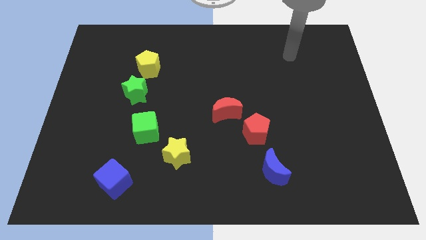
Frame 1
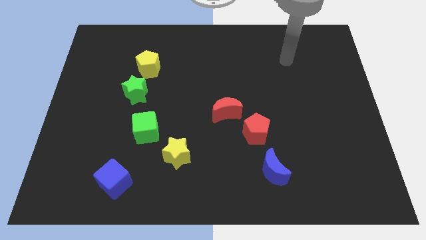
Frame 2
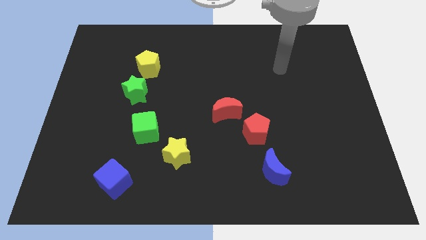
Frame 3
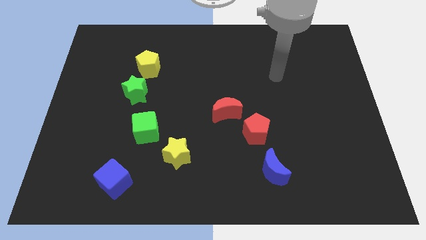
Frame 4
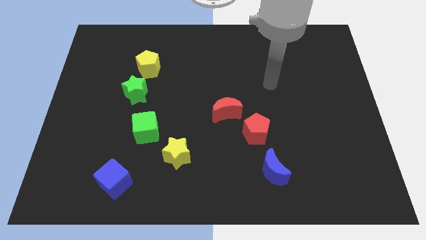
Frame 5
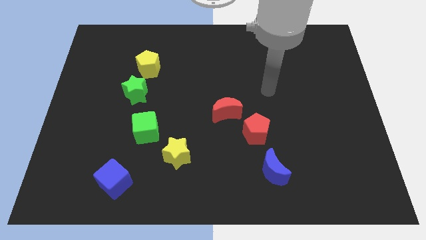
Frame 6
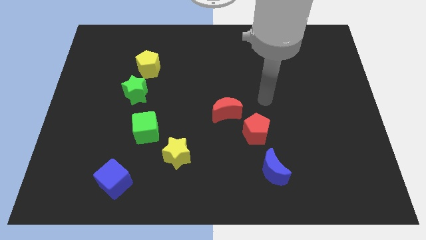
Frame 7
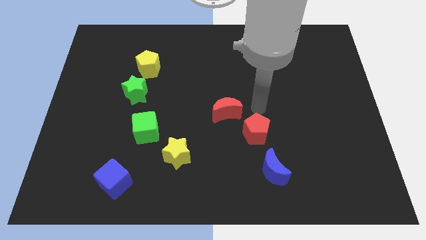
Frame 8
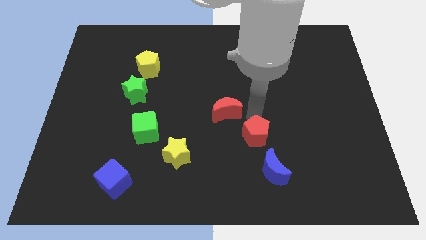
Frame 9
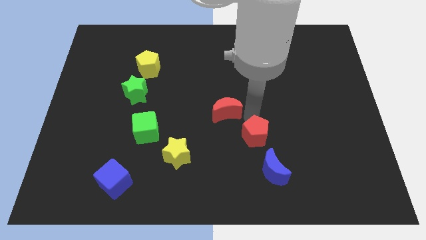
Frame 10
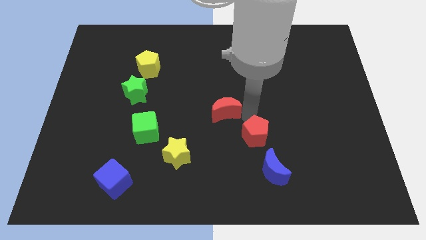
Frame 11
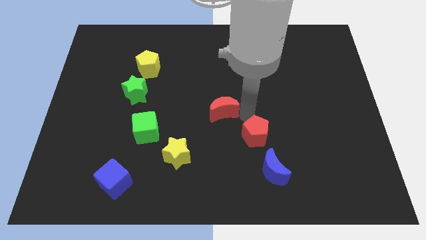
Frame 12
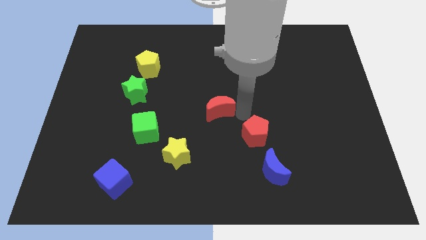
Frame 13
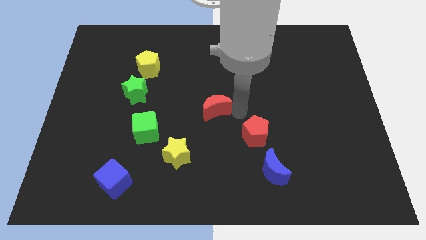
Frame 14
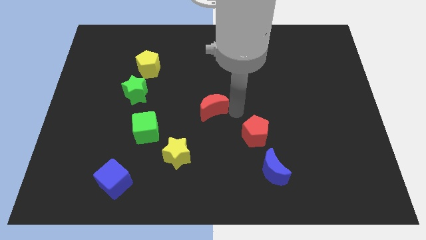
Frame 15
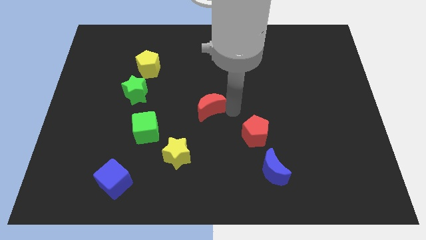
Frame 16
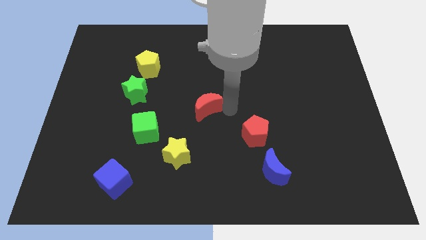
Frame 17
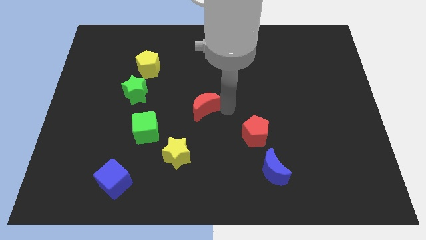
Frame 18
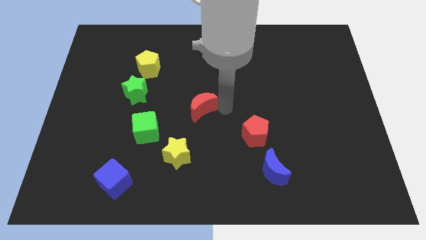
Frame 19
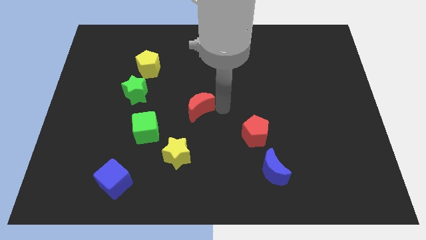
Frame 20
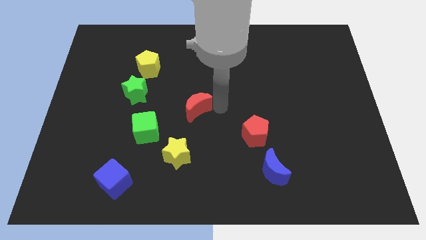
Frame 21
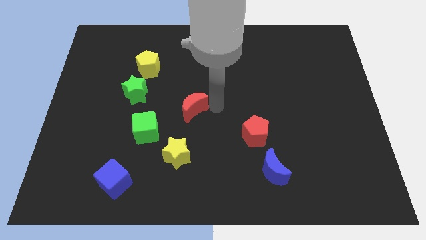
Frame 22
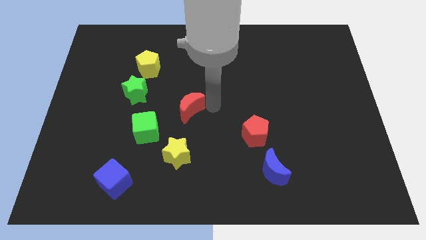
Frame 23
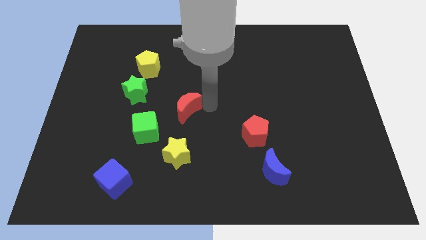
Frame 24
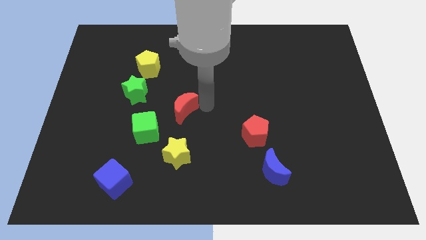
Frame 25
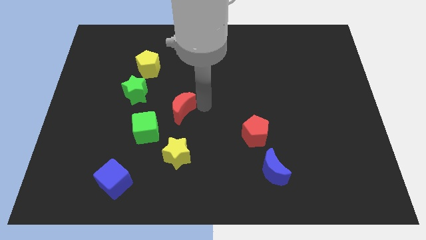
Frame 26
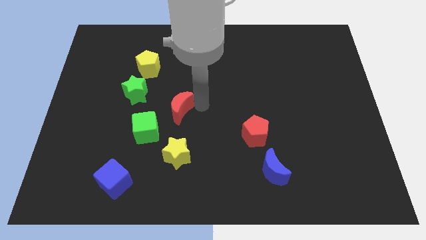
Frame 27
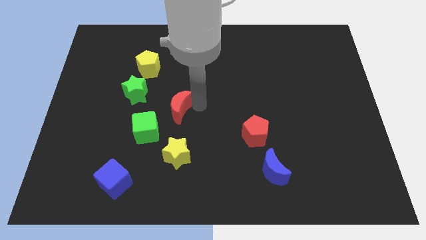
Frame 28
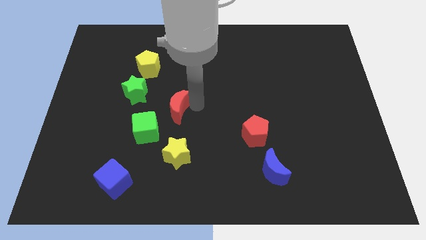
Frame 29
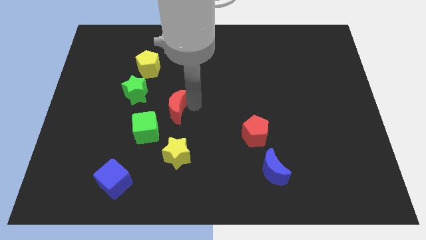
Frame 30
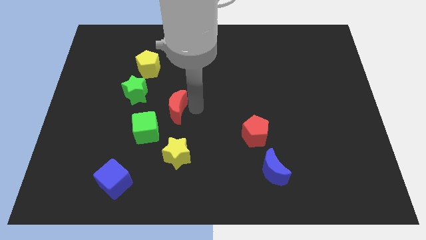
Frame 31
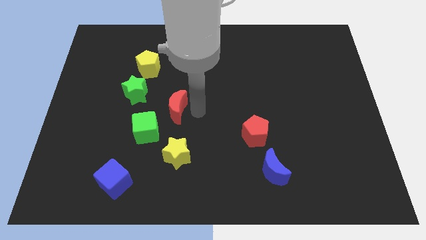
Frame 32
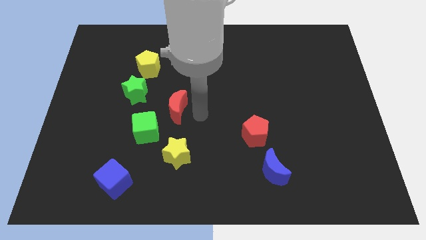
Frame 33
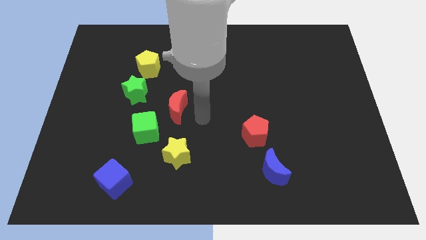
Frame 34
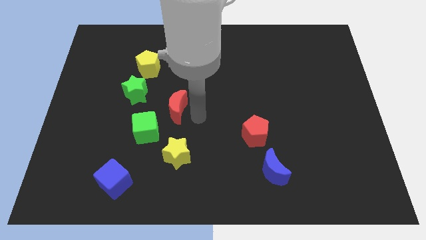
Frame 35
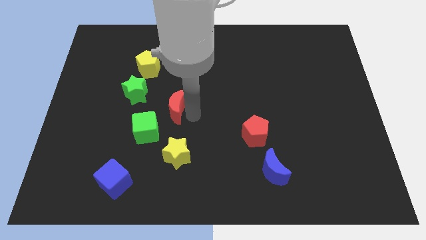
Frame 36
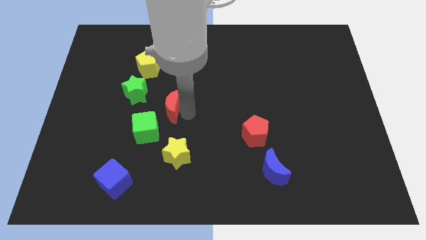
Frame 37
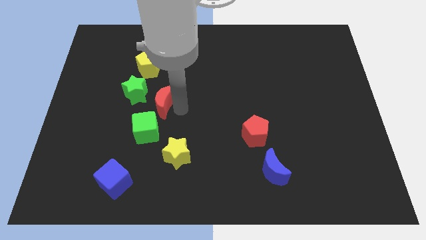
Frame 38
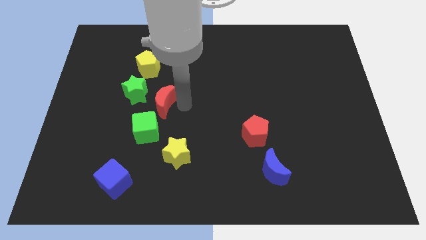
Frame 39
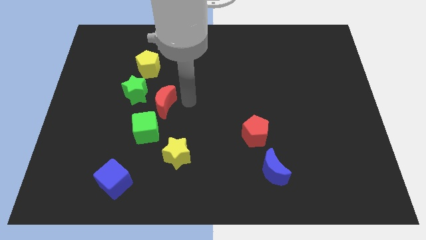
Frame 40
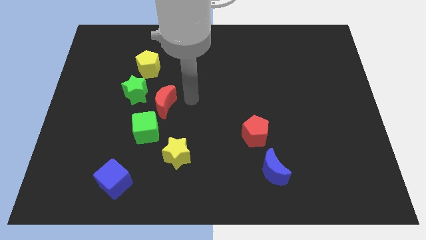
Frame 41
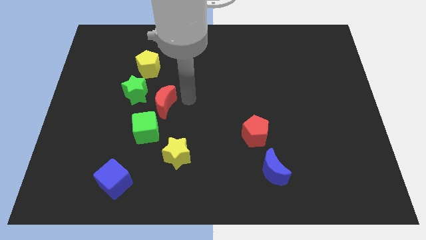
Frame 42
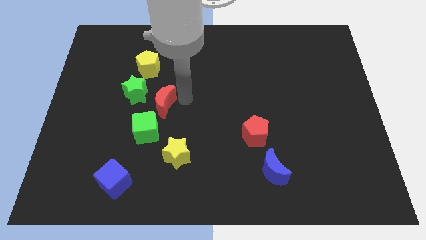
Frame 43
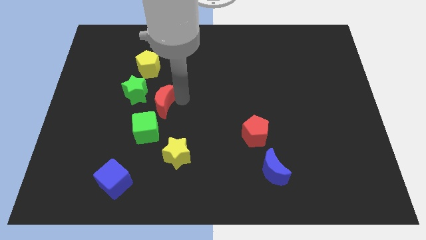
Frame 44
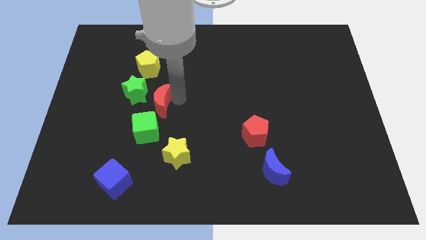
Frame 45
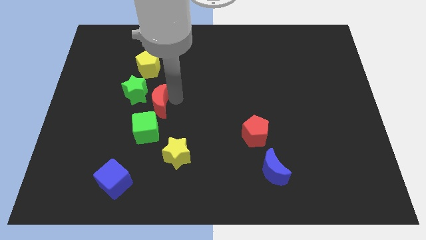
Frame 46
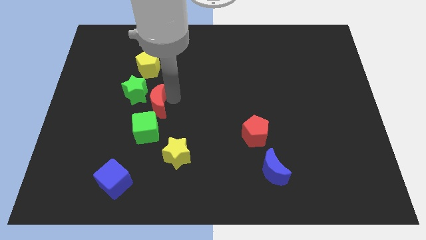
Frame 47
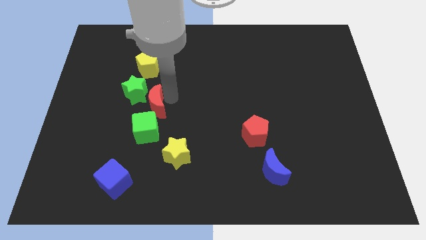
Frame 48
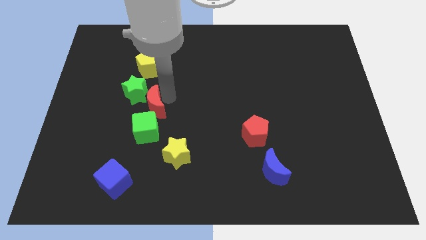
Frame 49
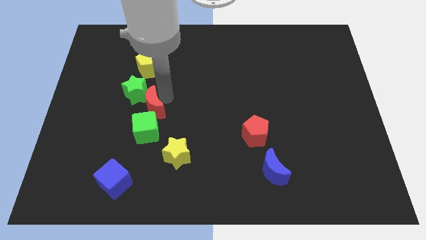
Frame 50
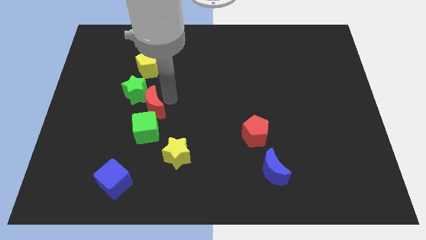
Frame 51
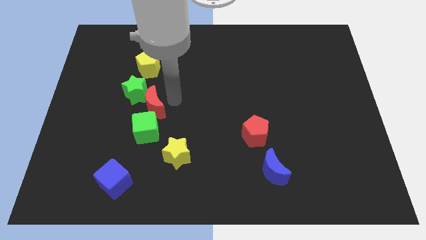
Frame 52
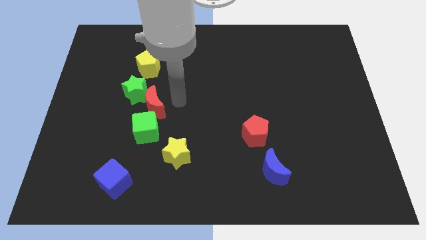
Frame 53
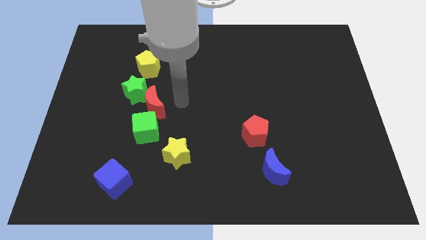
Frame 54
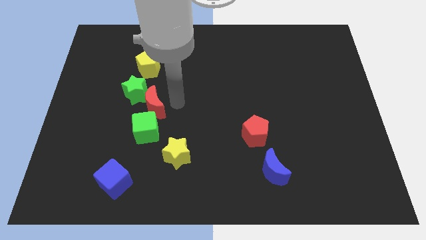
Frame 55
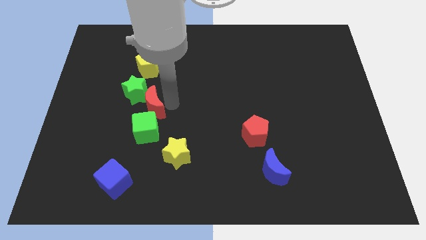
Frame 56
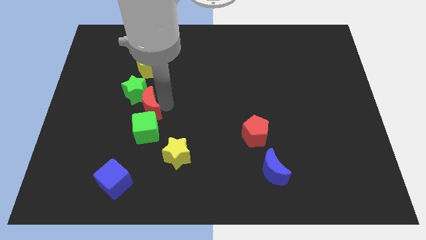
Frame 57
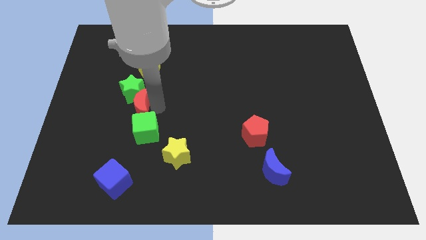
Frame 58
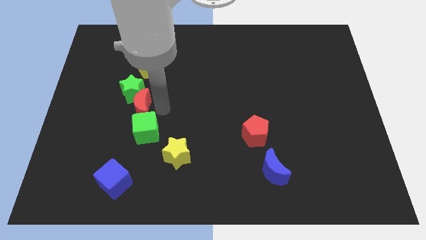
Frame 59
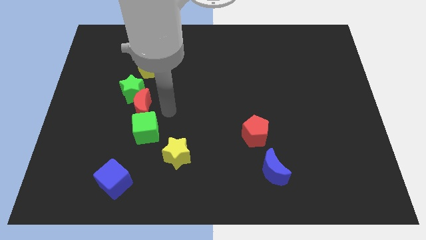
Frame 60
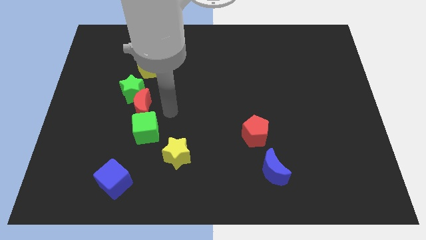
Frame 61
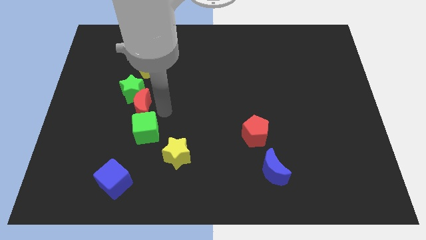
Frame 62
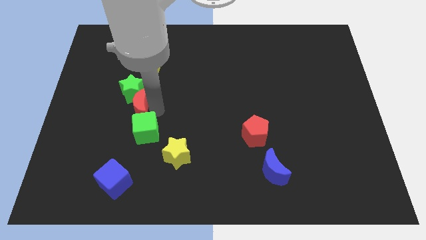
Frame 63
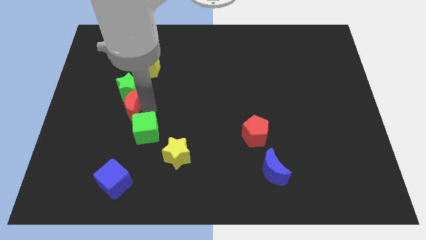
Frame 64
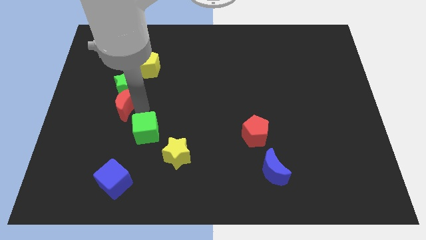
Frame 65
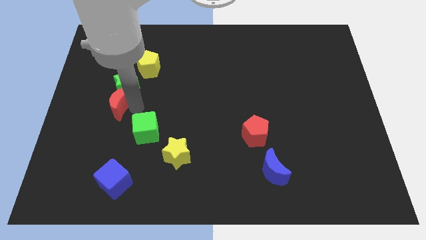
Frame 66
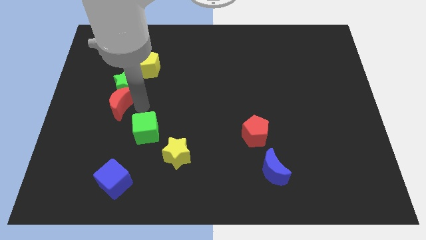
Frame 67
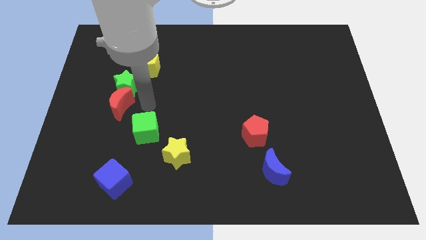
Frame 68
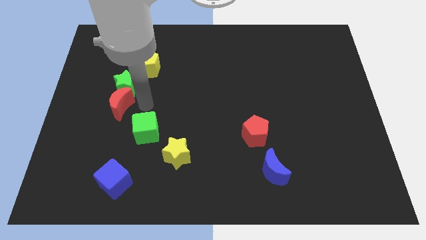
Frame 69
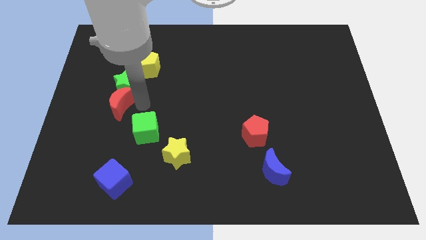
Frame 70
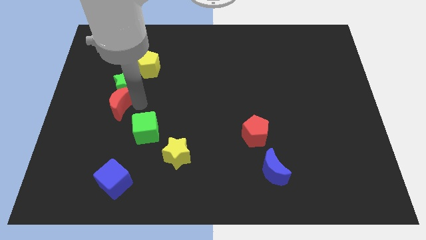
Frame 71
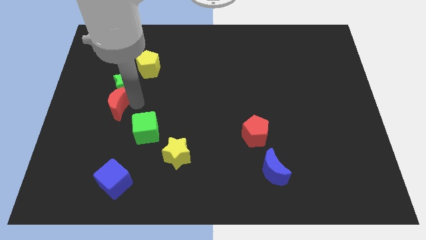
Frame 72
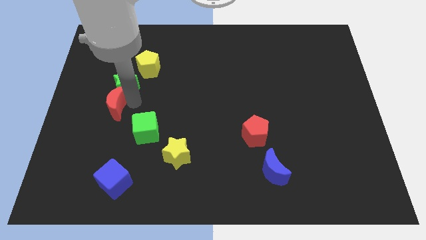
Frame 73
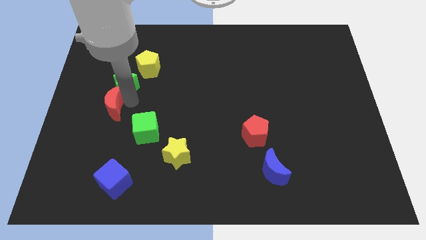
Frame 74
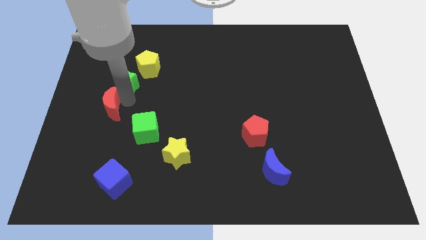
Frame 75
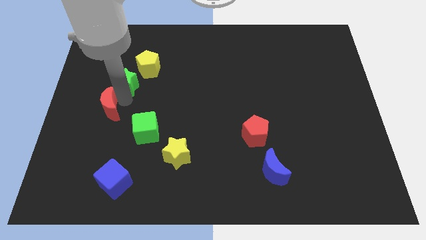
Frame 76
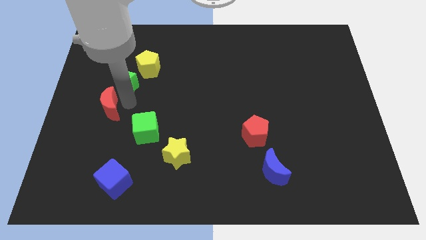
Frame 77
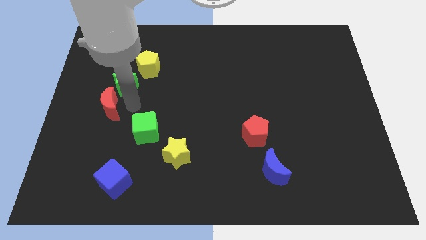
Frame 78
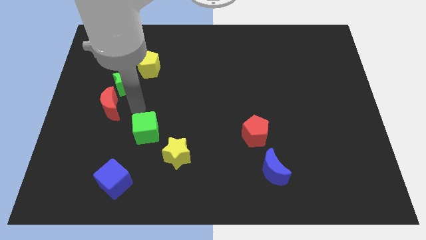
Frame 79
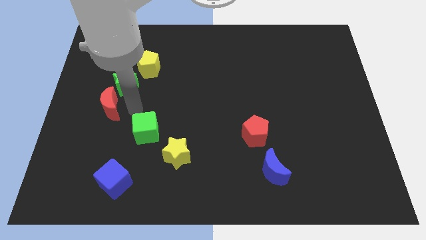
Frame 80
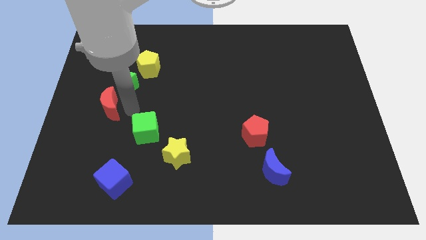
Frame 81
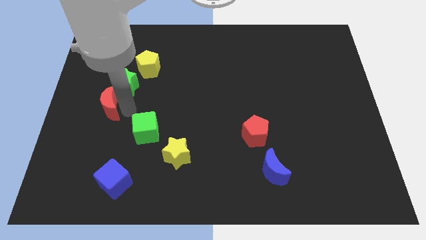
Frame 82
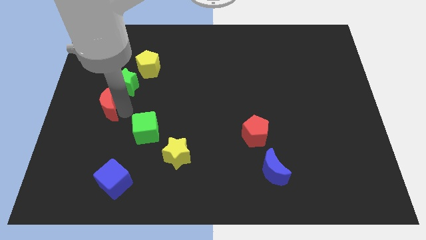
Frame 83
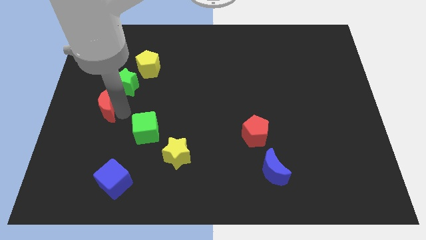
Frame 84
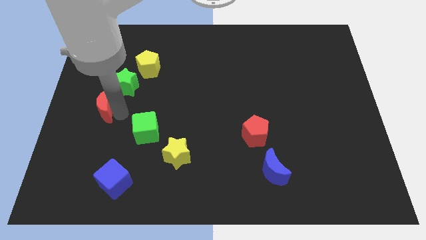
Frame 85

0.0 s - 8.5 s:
put the red moon to the left side
